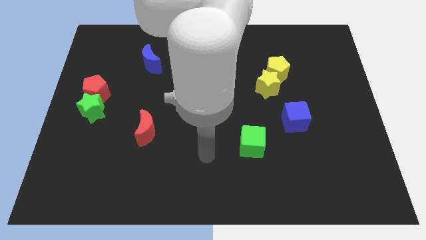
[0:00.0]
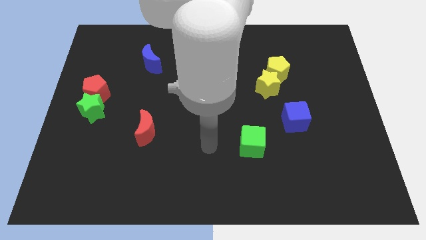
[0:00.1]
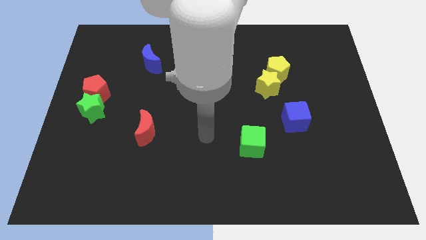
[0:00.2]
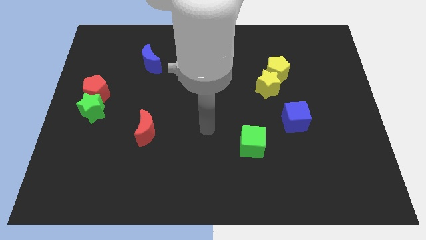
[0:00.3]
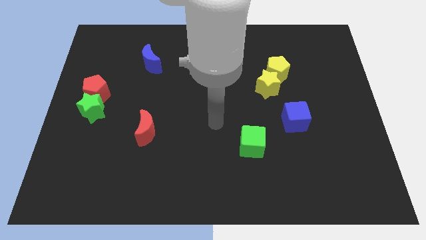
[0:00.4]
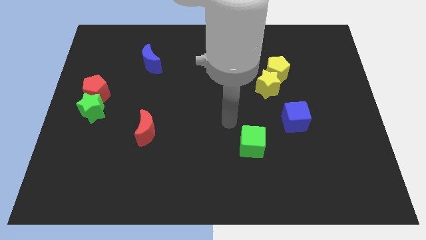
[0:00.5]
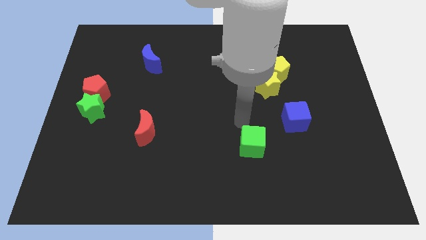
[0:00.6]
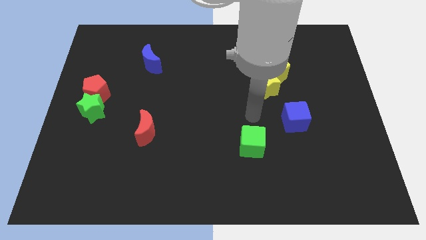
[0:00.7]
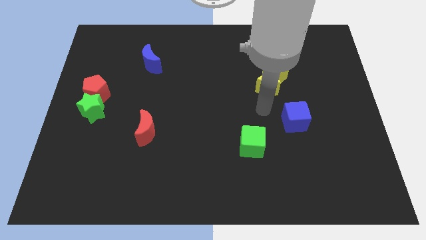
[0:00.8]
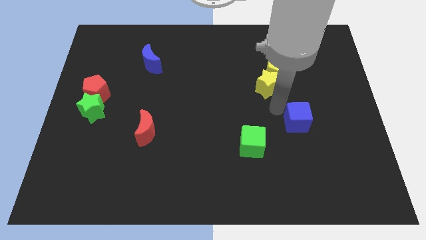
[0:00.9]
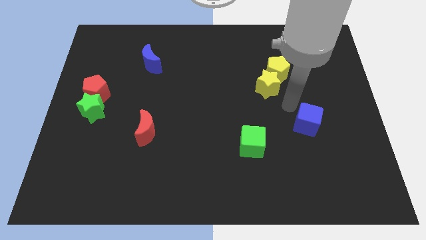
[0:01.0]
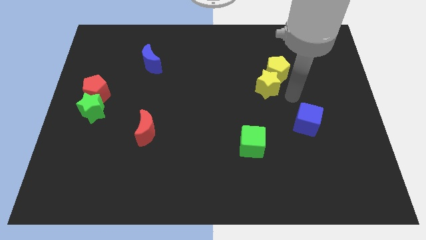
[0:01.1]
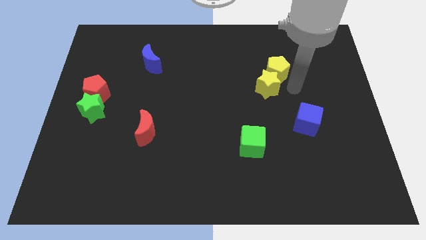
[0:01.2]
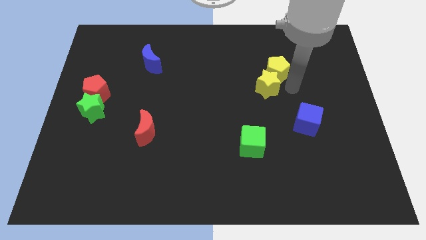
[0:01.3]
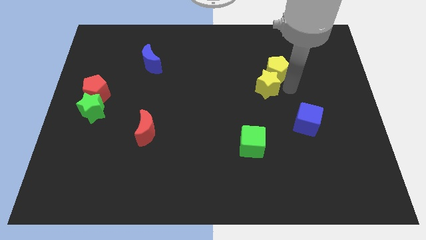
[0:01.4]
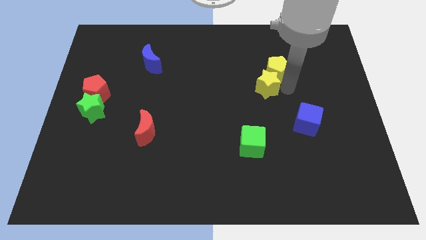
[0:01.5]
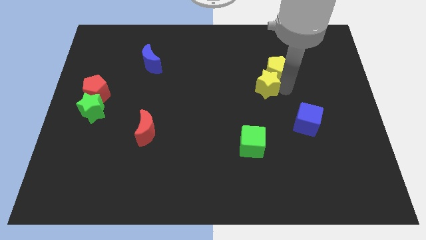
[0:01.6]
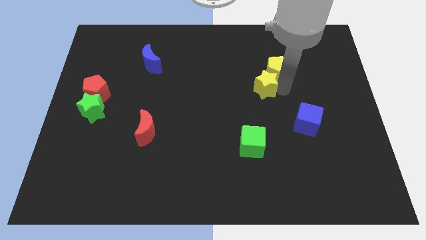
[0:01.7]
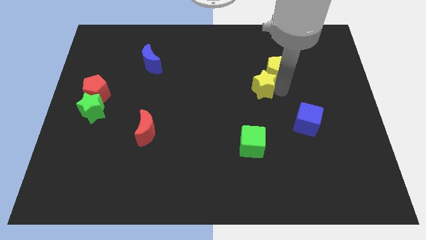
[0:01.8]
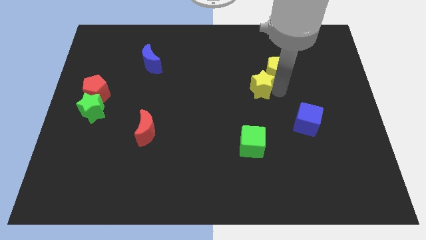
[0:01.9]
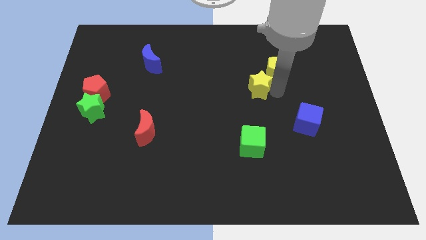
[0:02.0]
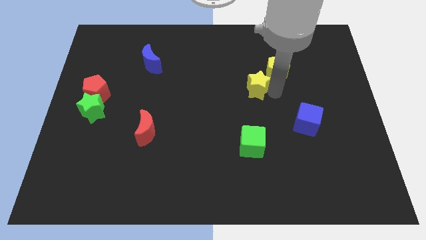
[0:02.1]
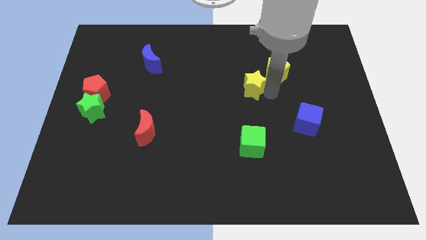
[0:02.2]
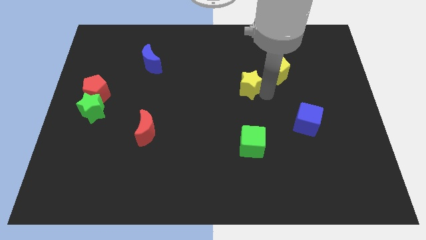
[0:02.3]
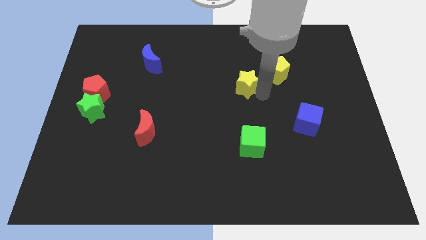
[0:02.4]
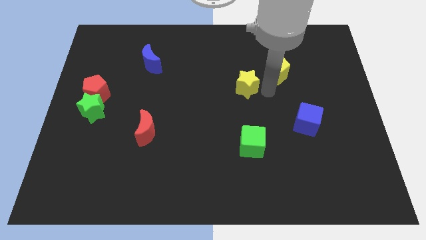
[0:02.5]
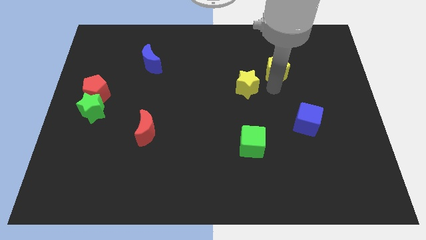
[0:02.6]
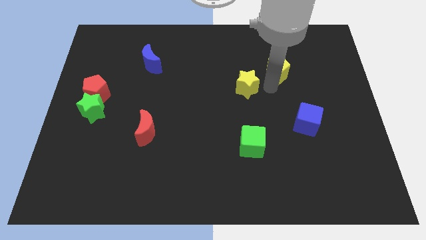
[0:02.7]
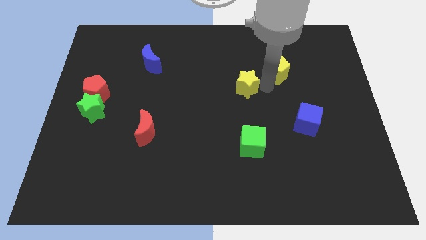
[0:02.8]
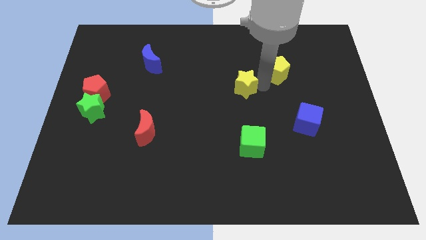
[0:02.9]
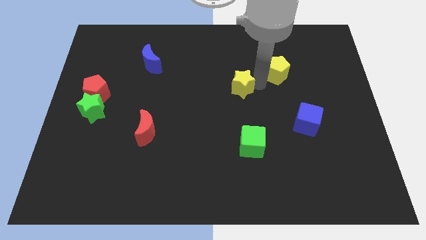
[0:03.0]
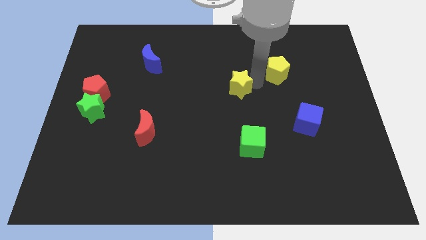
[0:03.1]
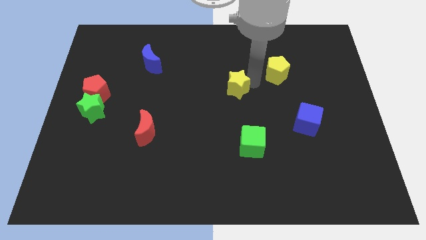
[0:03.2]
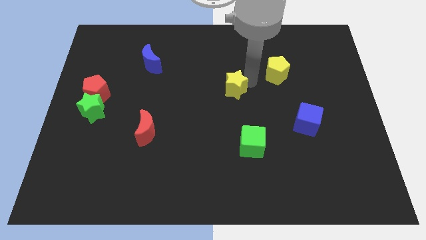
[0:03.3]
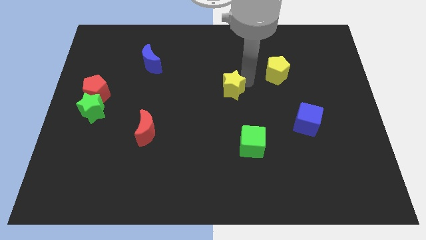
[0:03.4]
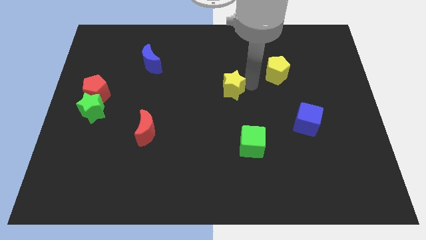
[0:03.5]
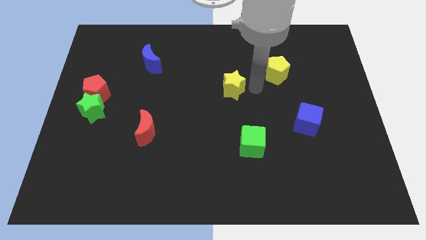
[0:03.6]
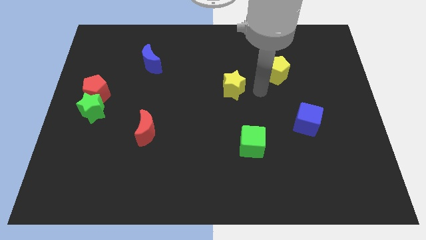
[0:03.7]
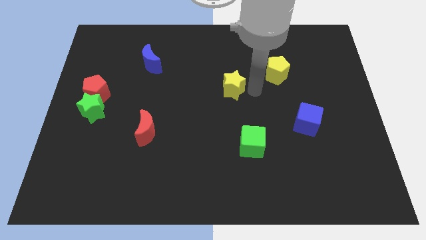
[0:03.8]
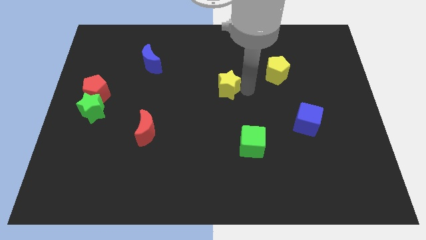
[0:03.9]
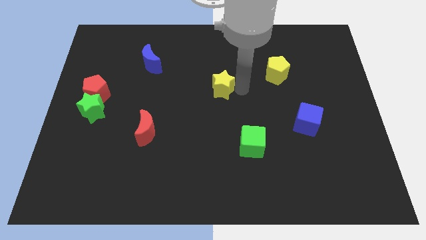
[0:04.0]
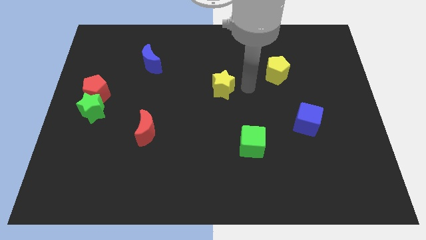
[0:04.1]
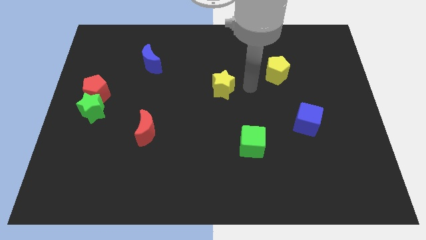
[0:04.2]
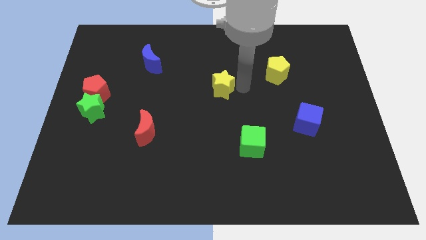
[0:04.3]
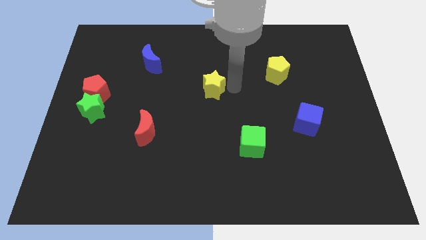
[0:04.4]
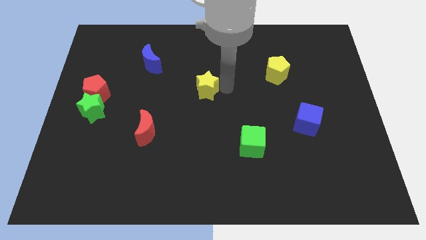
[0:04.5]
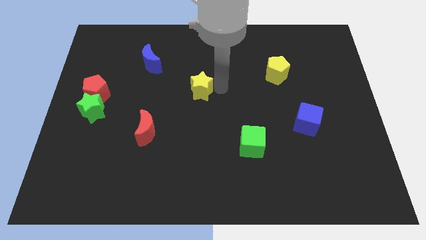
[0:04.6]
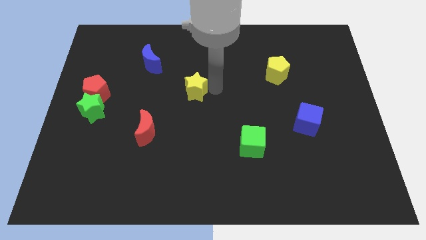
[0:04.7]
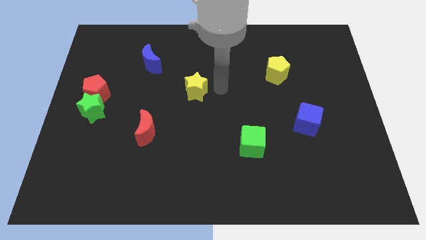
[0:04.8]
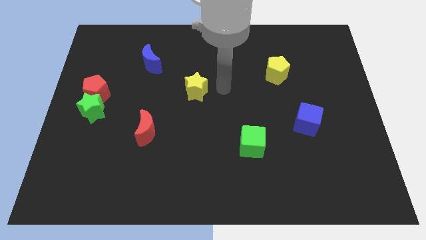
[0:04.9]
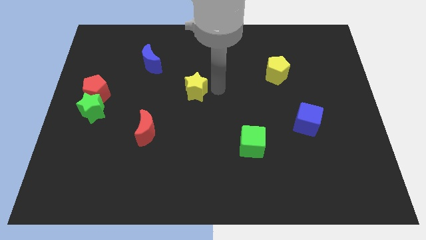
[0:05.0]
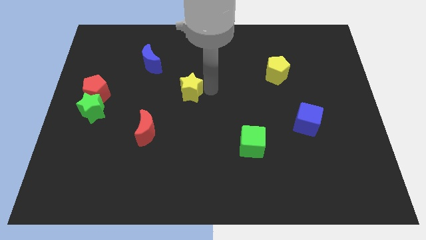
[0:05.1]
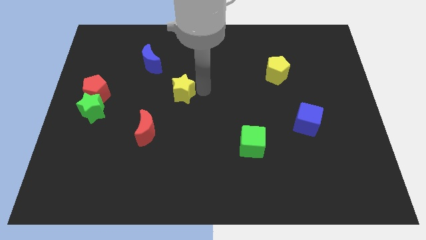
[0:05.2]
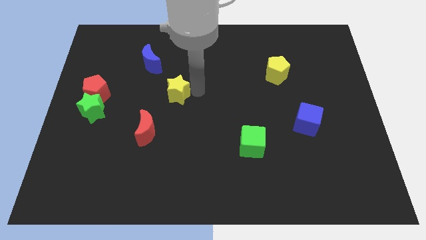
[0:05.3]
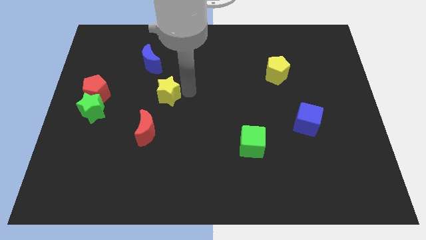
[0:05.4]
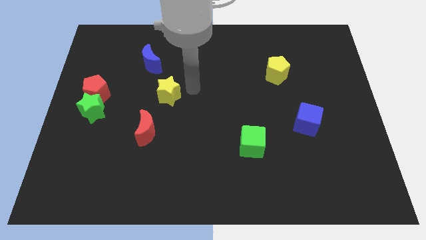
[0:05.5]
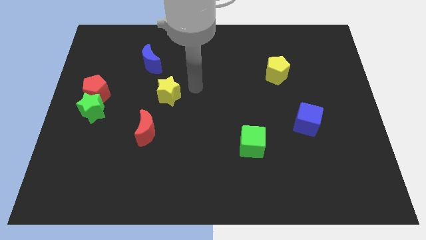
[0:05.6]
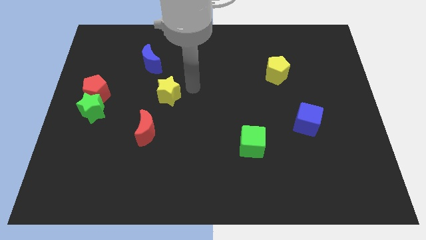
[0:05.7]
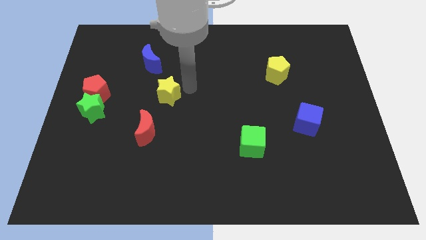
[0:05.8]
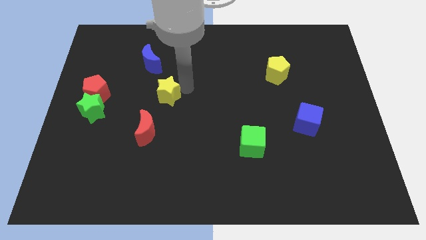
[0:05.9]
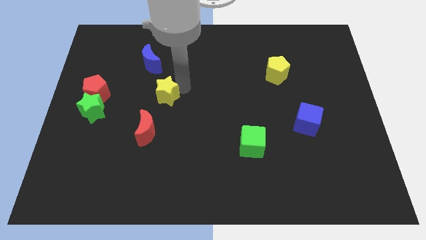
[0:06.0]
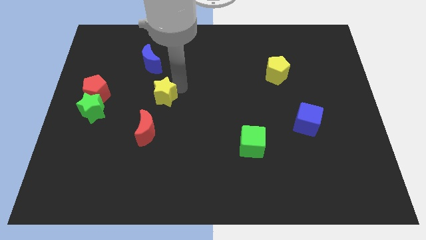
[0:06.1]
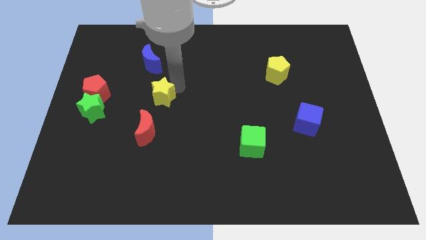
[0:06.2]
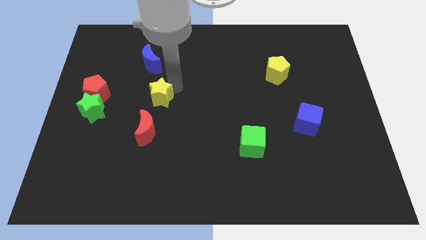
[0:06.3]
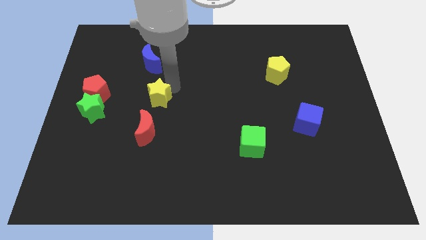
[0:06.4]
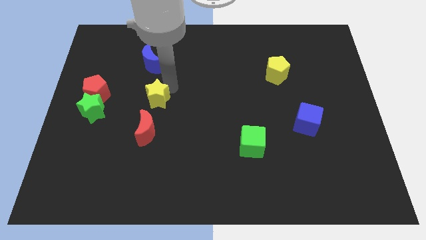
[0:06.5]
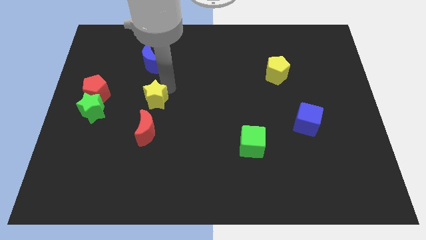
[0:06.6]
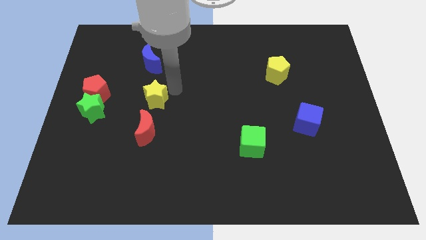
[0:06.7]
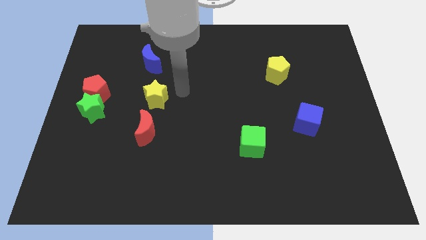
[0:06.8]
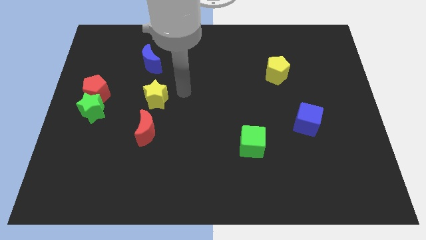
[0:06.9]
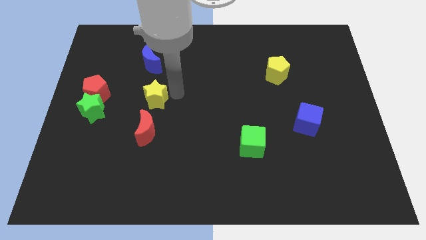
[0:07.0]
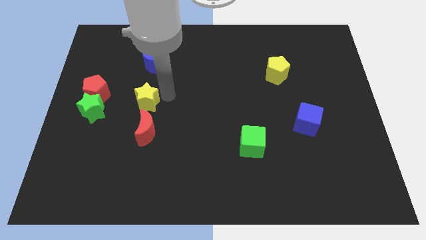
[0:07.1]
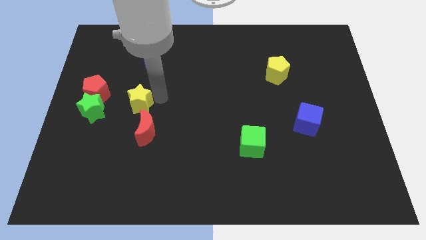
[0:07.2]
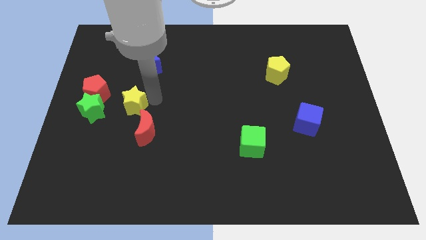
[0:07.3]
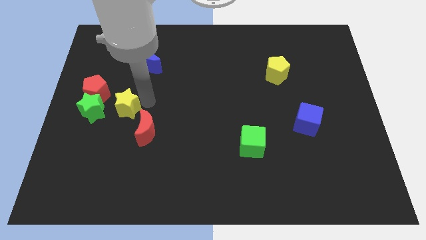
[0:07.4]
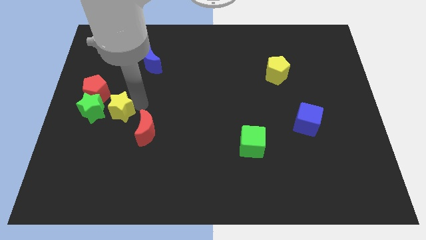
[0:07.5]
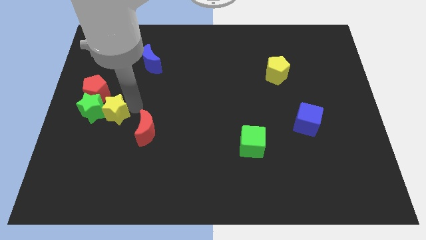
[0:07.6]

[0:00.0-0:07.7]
move the yellow star to the green star
